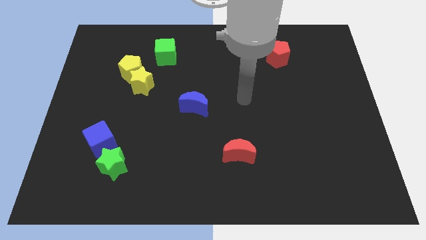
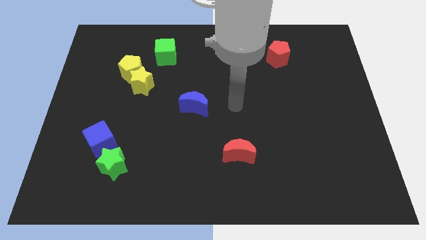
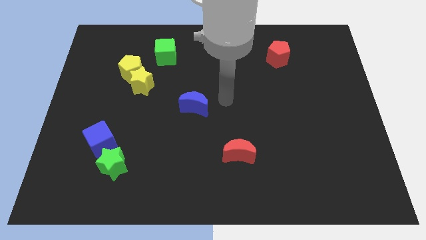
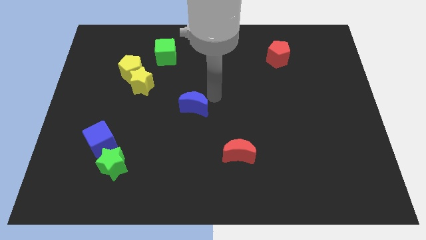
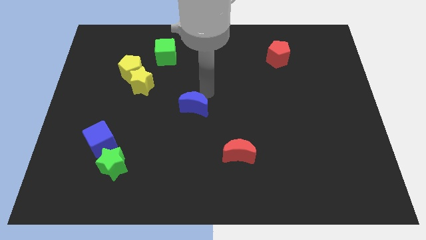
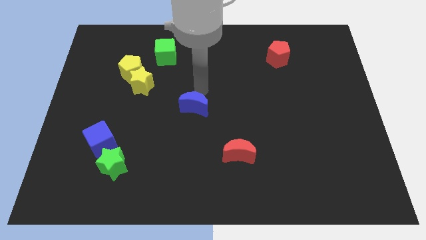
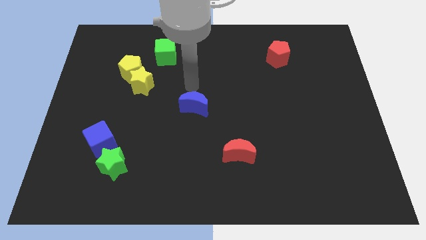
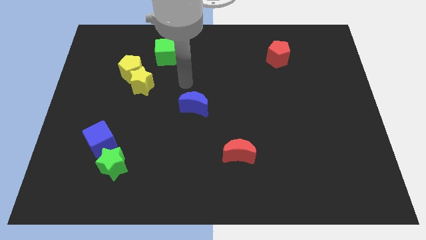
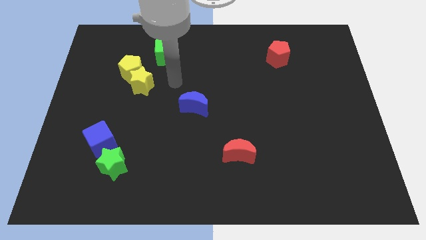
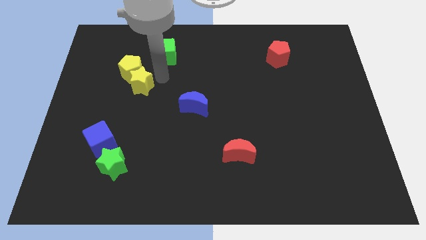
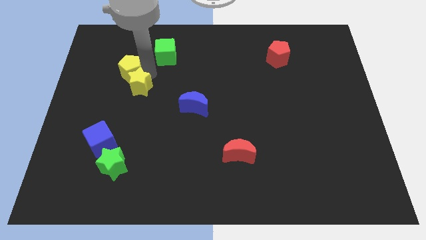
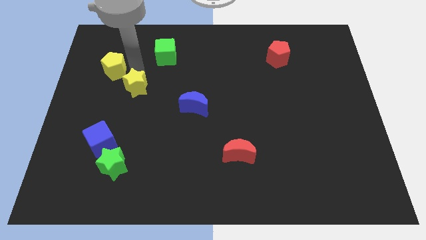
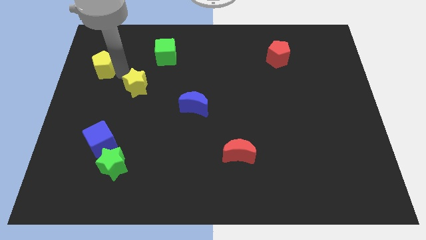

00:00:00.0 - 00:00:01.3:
pull the yellow star apart from the yellow pentagon

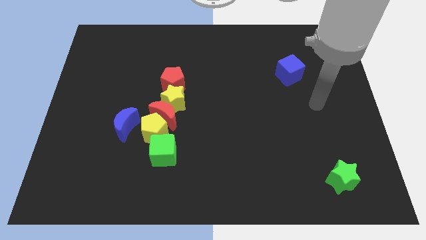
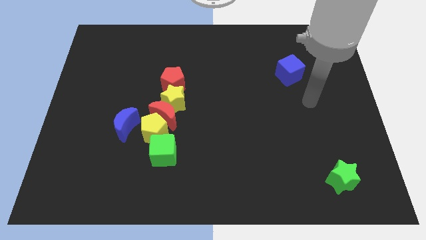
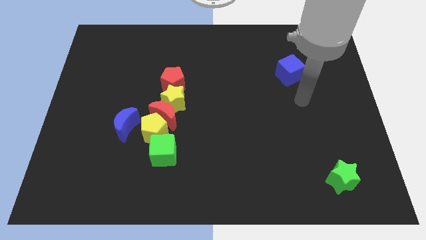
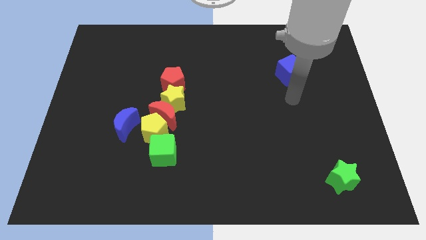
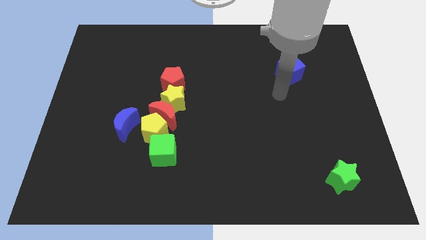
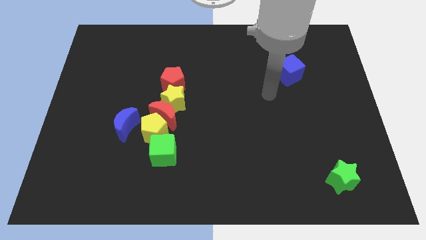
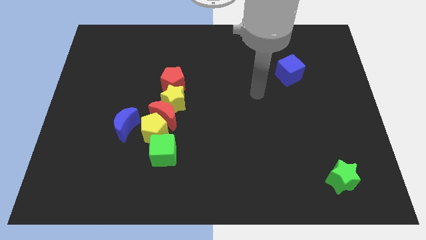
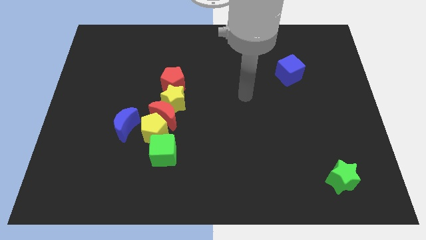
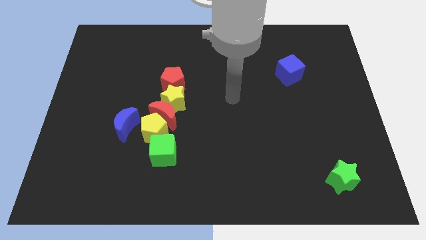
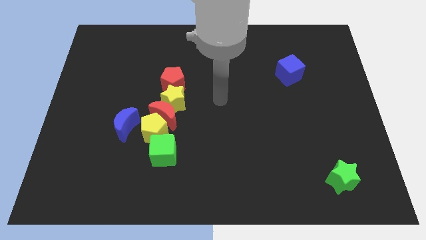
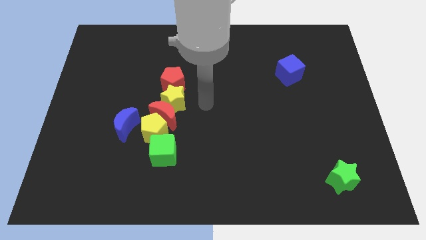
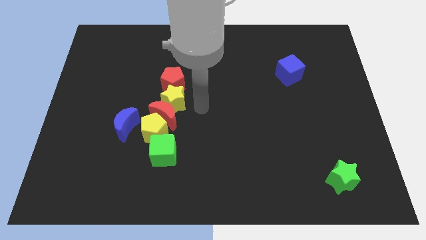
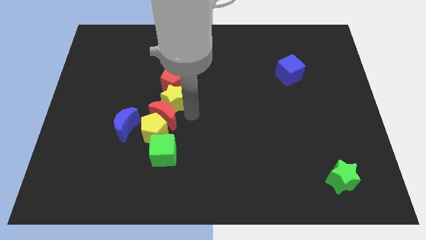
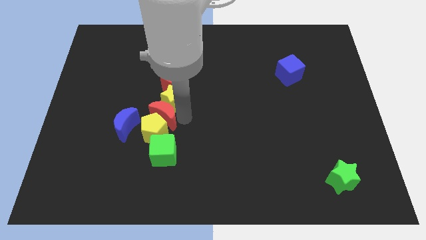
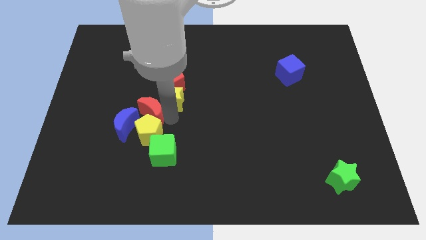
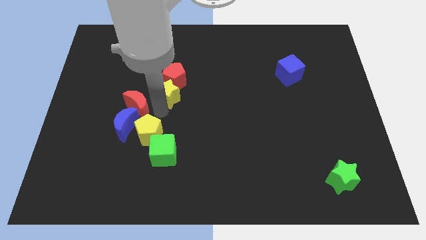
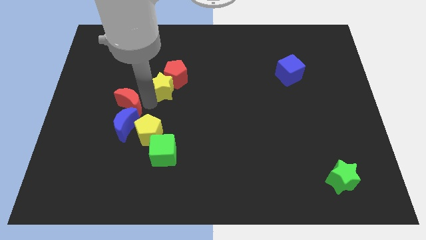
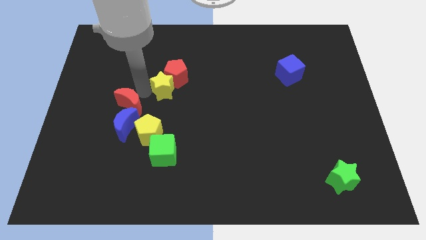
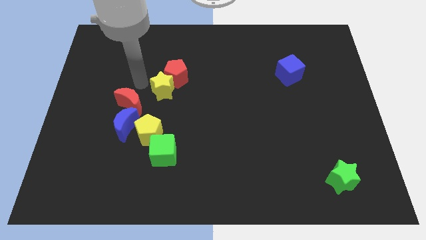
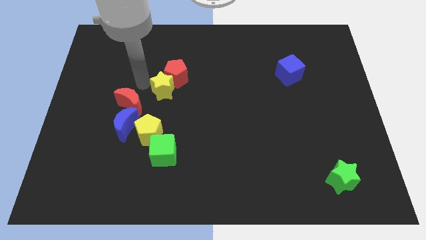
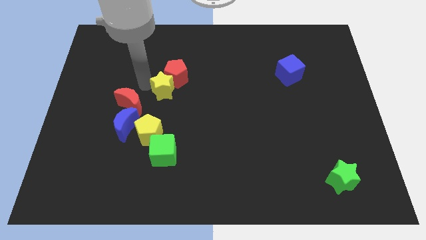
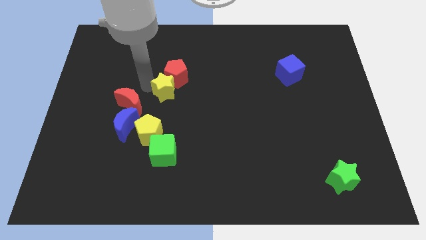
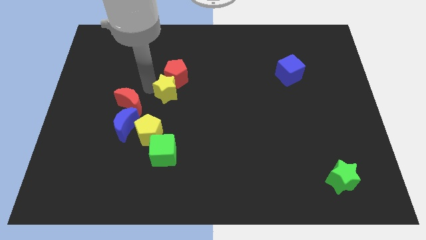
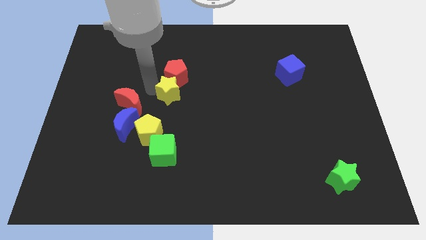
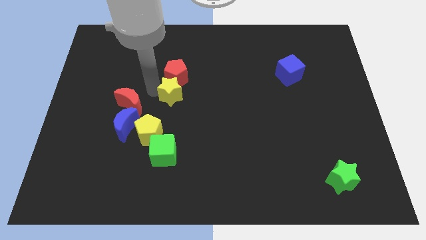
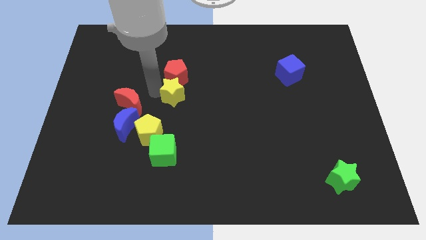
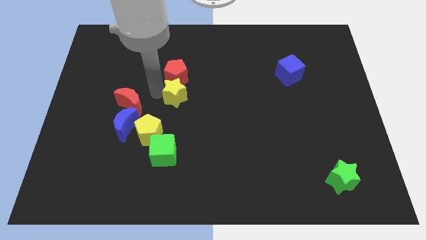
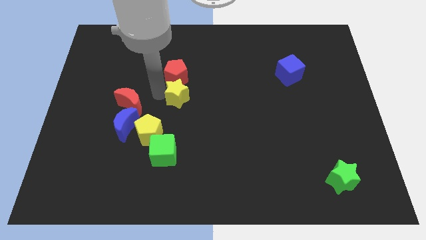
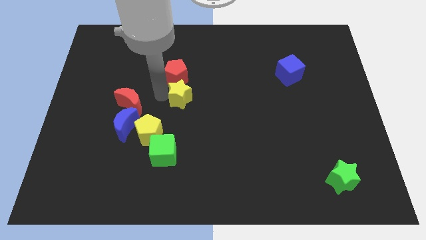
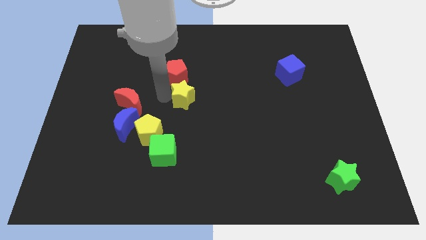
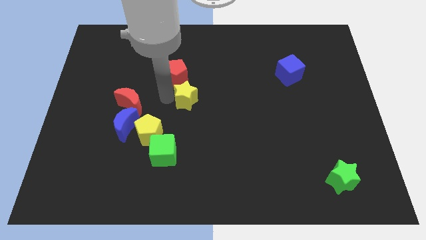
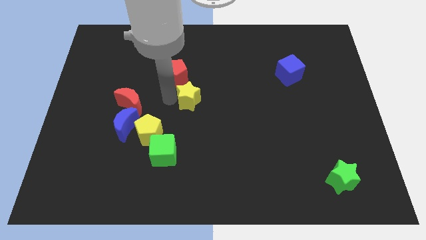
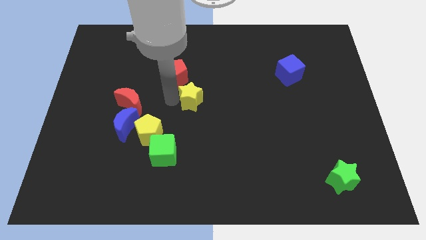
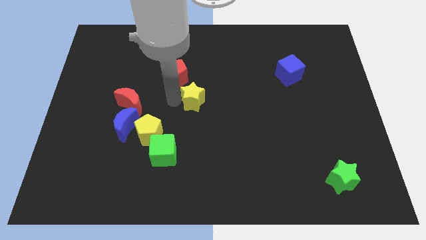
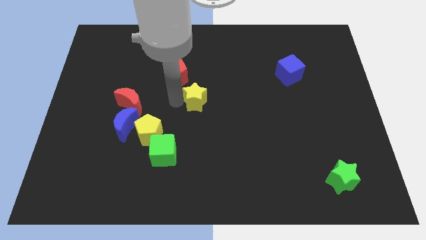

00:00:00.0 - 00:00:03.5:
separate the yellow star from the red moon, red pentagon, and yellow pentagon

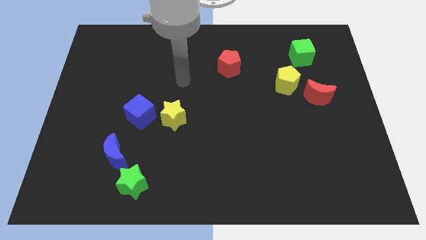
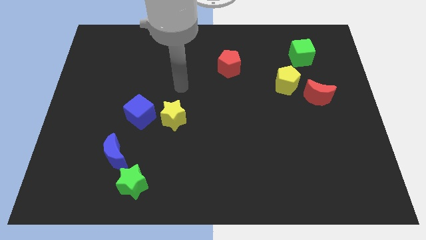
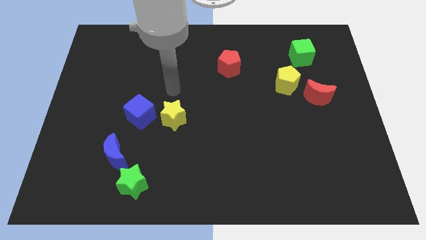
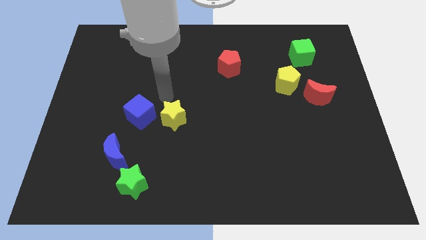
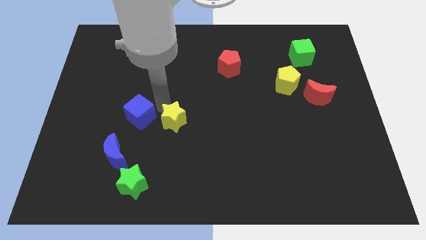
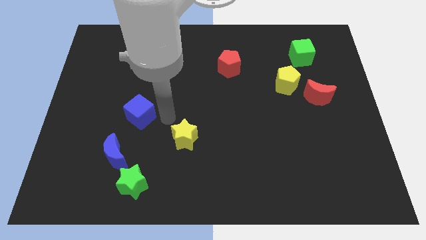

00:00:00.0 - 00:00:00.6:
move the blue cube away from the yellow star

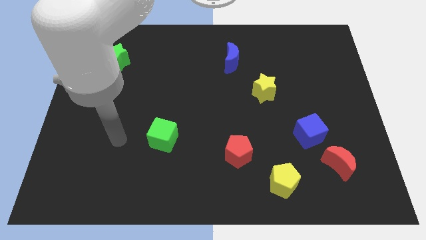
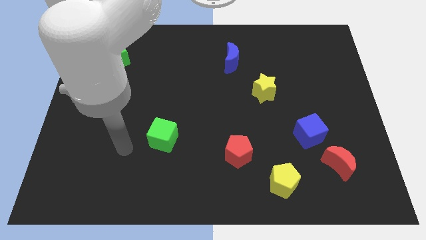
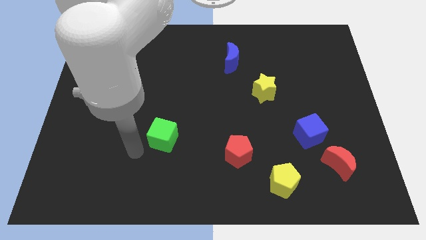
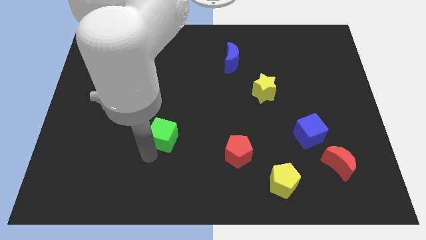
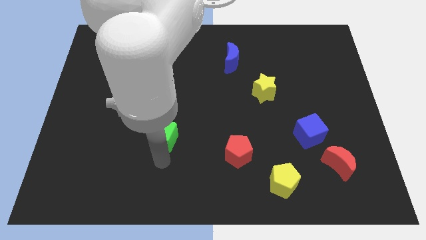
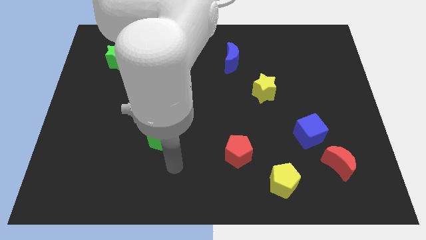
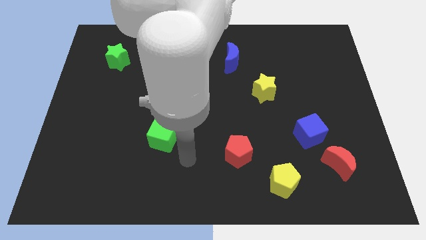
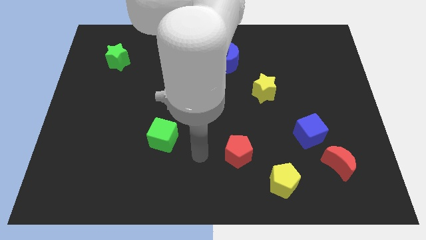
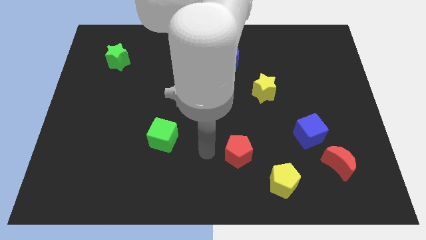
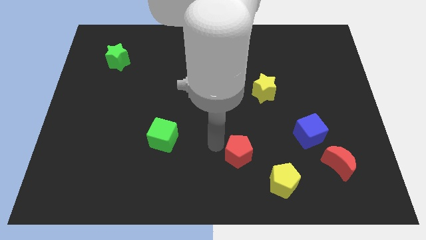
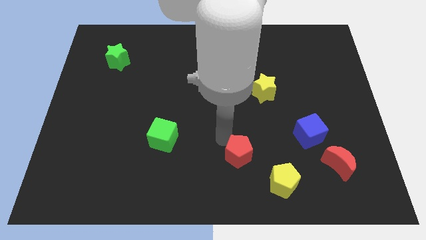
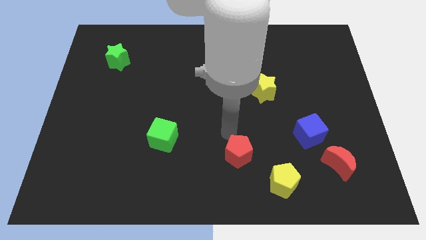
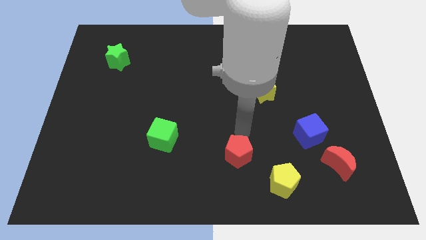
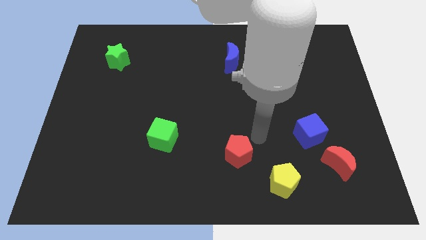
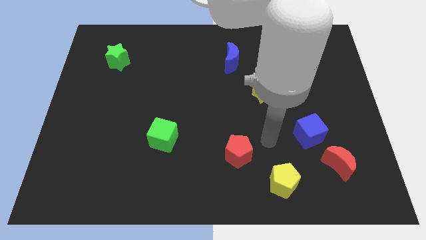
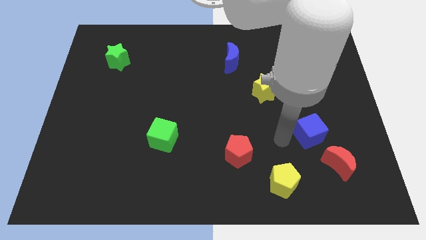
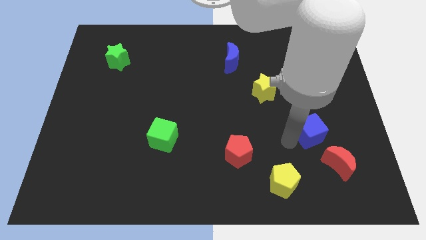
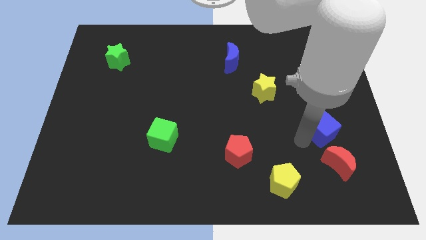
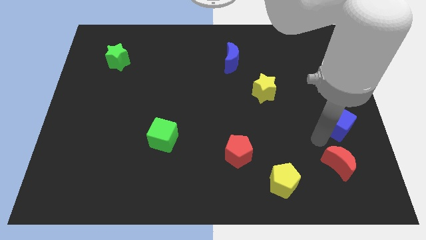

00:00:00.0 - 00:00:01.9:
separate the red moon from the blue cube

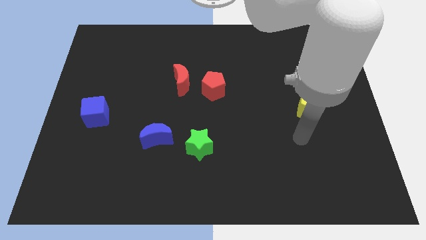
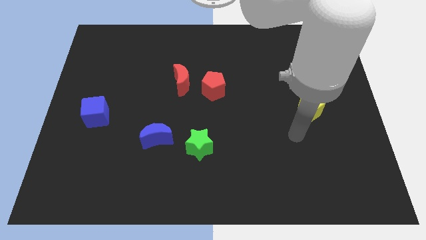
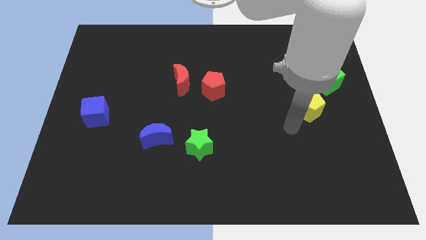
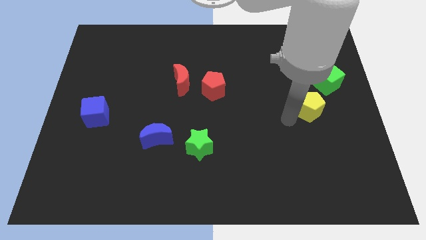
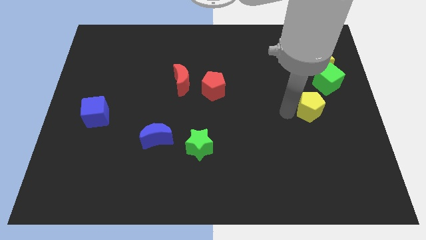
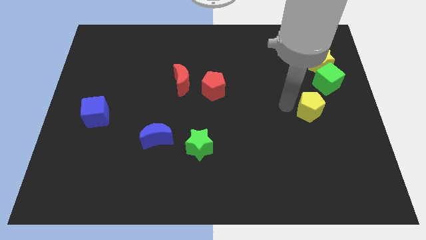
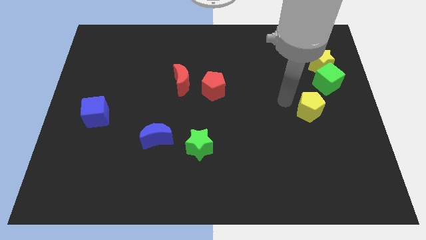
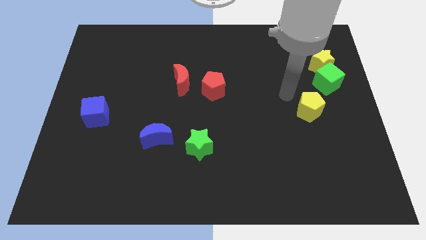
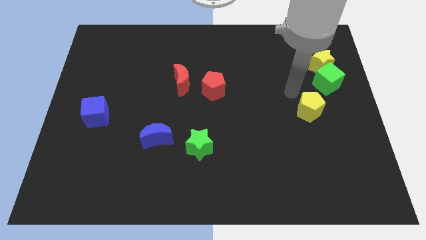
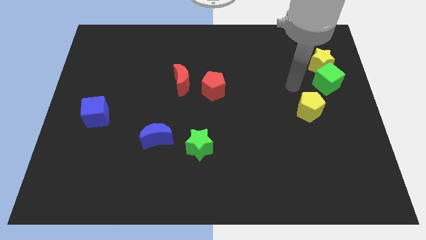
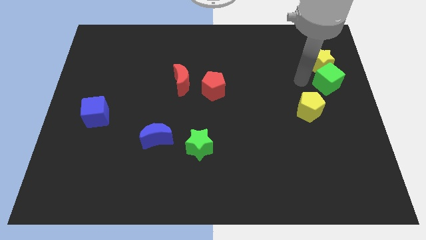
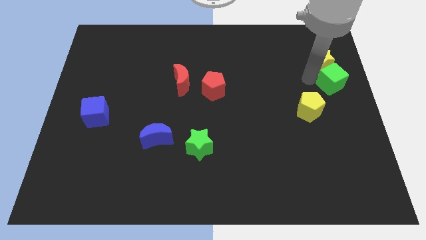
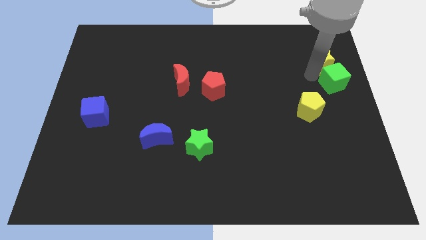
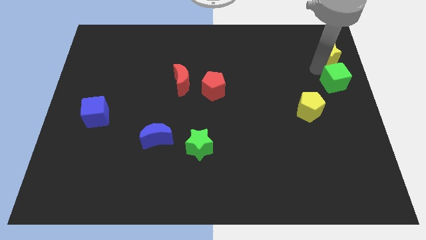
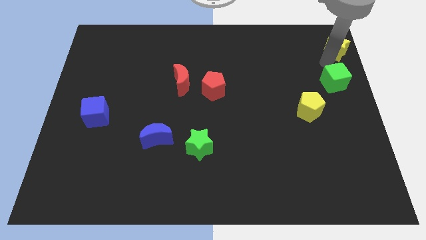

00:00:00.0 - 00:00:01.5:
pull the green cube apart from the yellow star

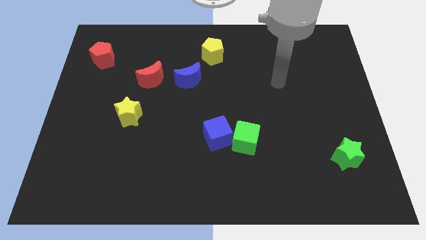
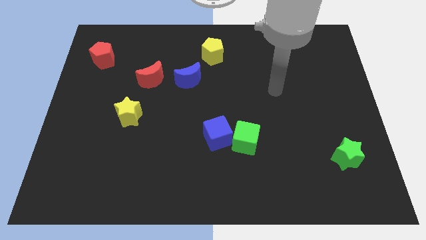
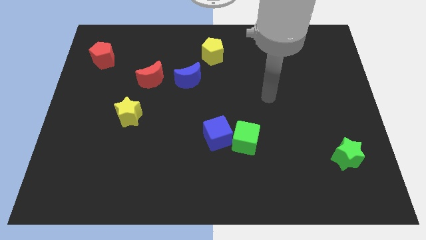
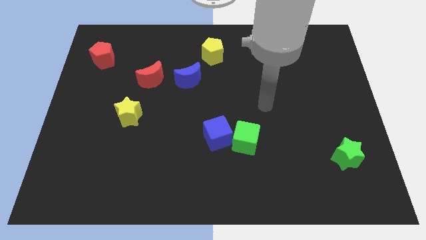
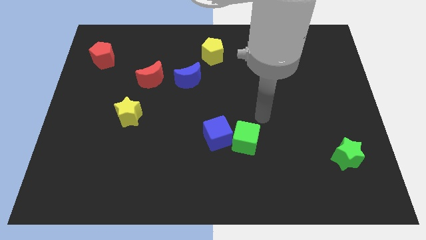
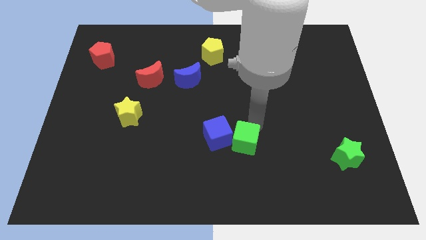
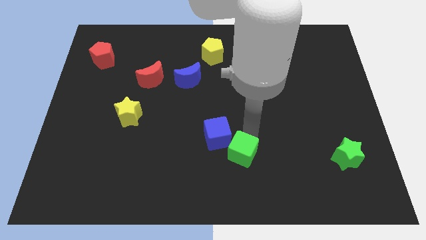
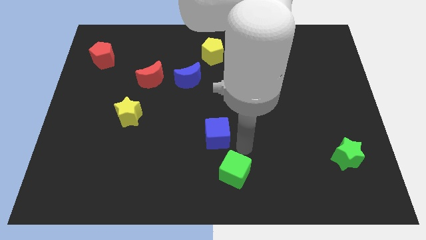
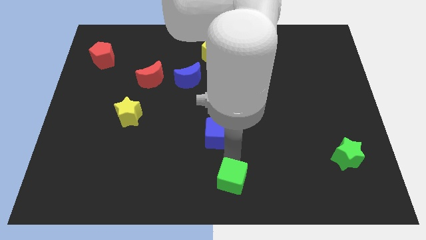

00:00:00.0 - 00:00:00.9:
pull the blue cube apart from the green cube
